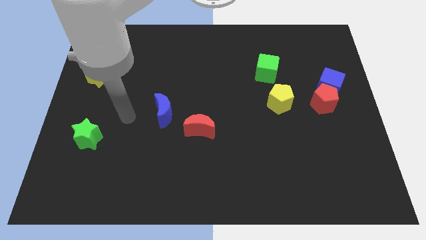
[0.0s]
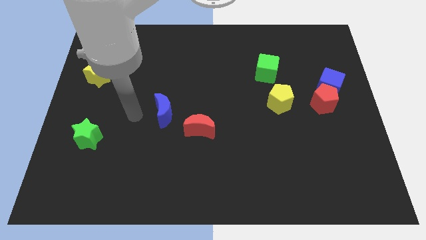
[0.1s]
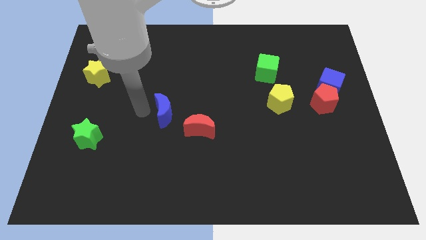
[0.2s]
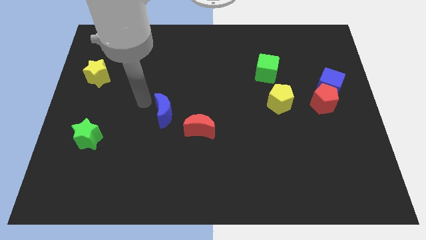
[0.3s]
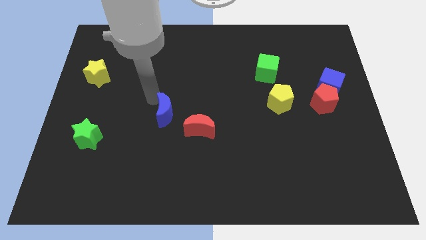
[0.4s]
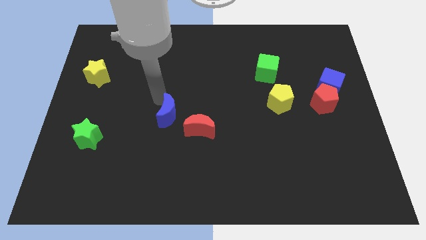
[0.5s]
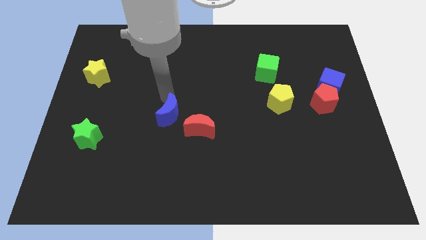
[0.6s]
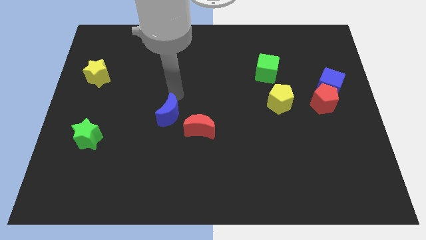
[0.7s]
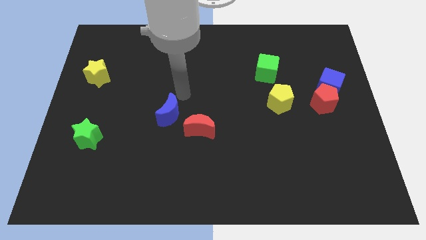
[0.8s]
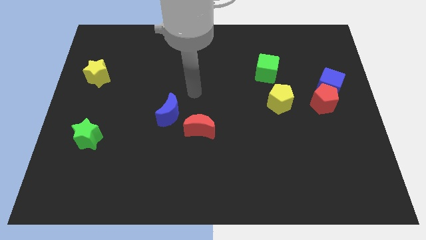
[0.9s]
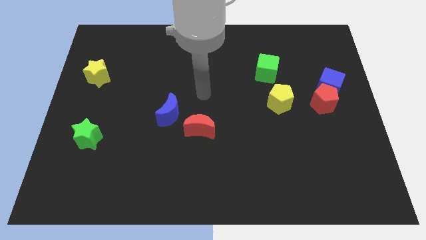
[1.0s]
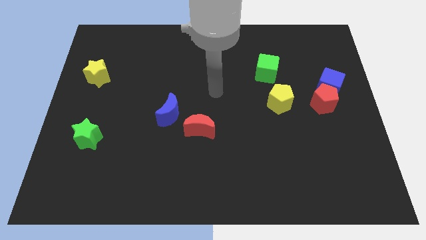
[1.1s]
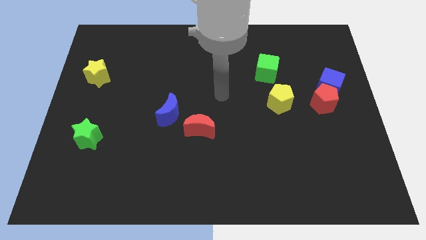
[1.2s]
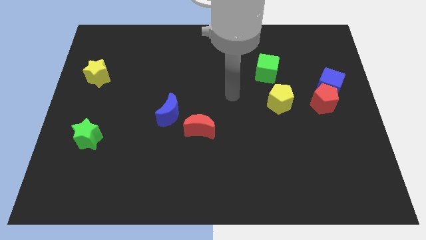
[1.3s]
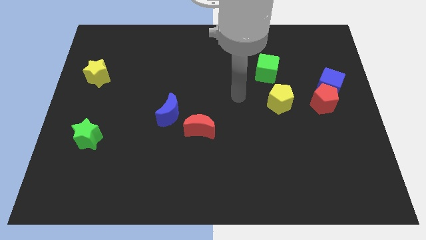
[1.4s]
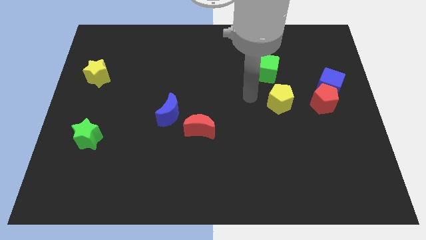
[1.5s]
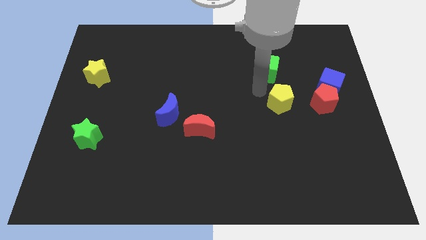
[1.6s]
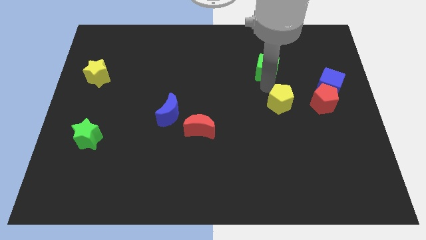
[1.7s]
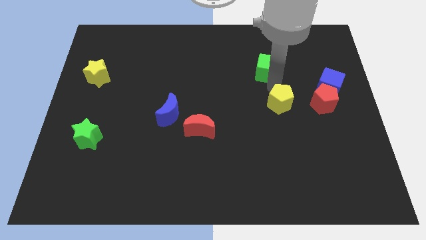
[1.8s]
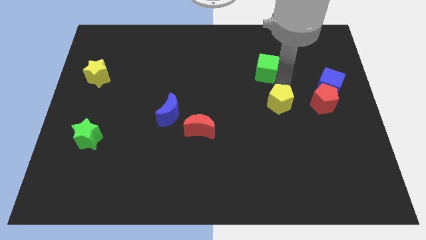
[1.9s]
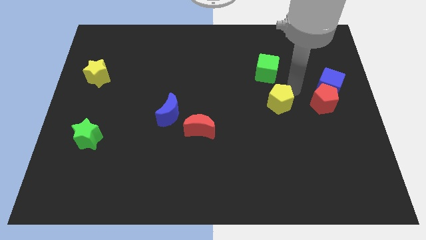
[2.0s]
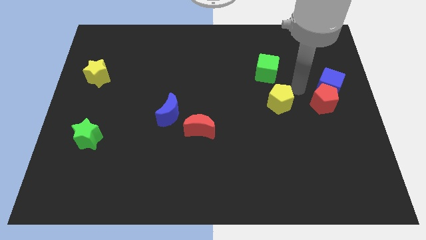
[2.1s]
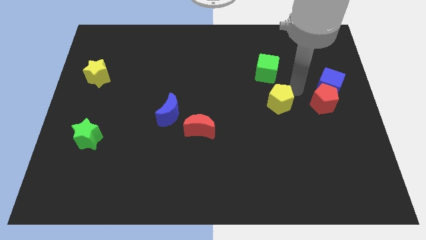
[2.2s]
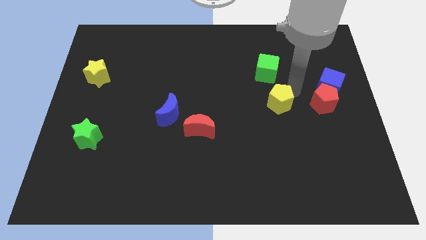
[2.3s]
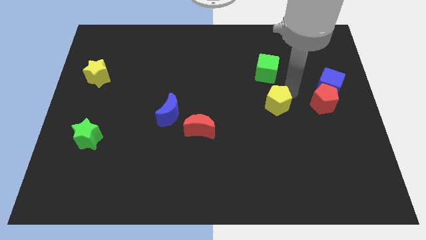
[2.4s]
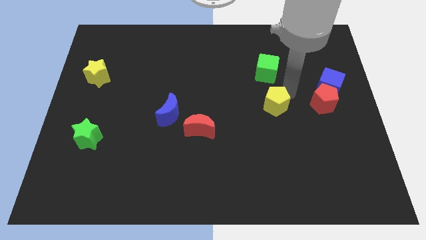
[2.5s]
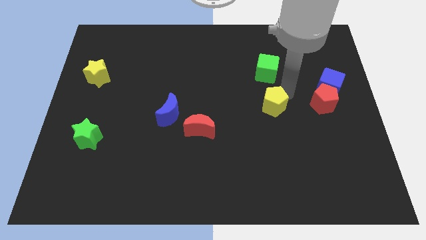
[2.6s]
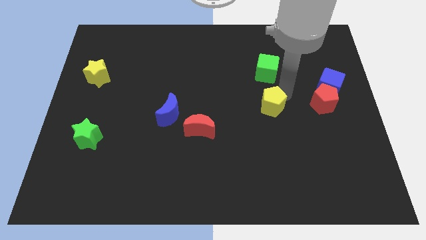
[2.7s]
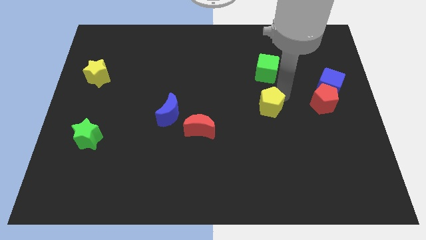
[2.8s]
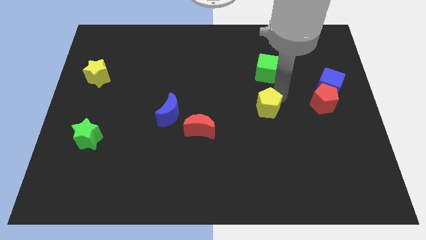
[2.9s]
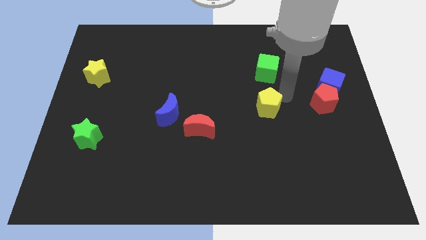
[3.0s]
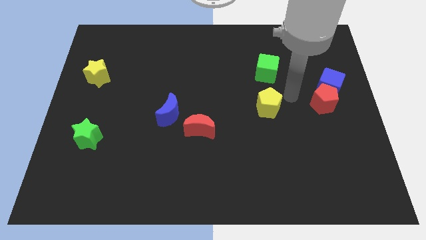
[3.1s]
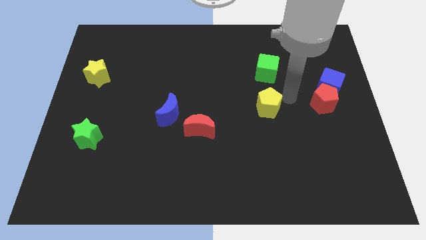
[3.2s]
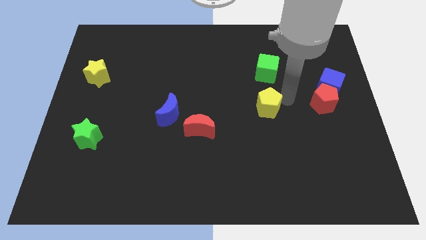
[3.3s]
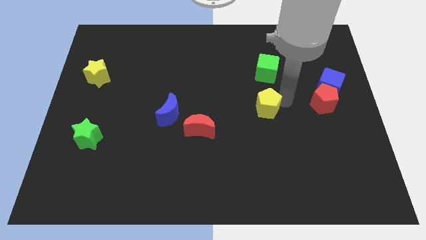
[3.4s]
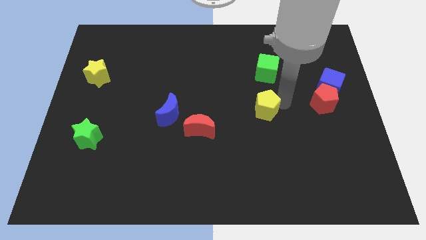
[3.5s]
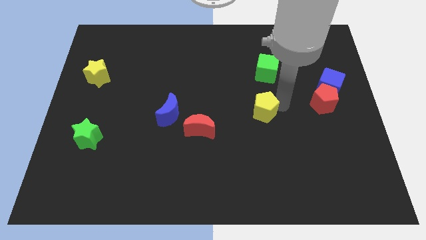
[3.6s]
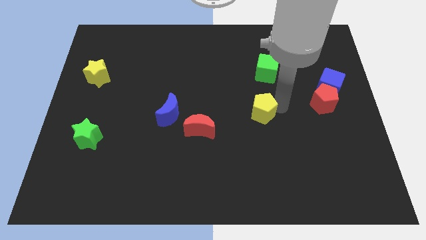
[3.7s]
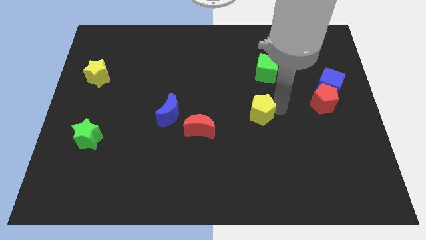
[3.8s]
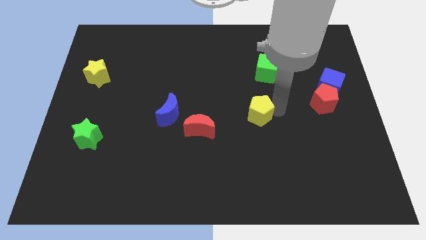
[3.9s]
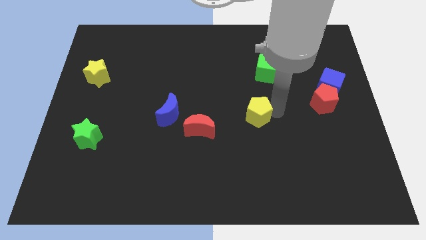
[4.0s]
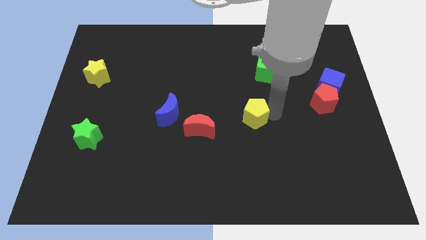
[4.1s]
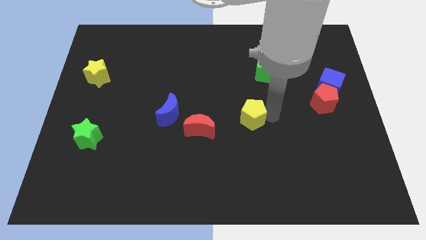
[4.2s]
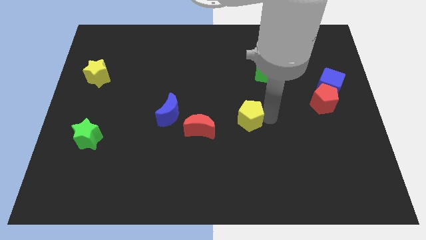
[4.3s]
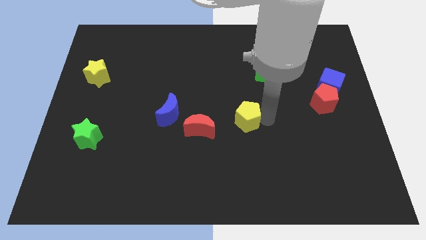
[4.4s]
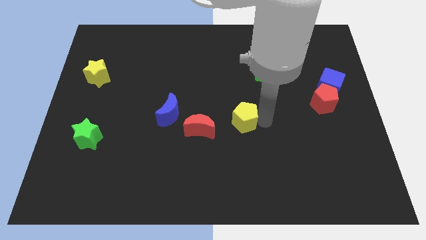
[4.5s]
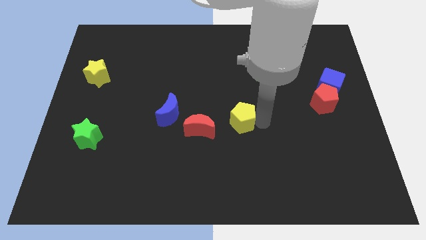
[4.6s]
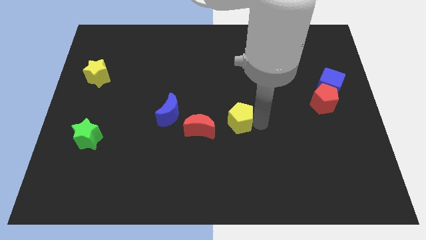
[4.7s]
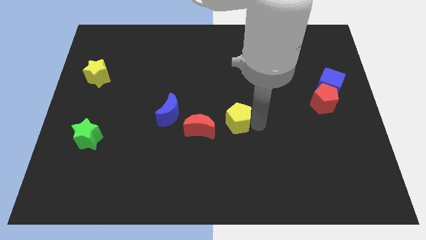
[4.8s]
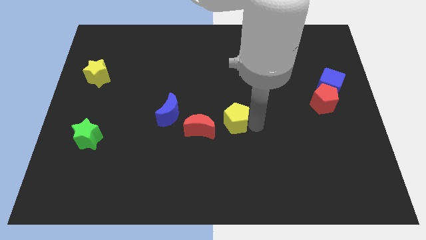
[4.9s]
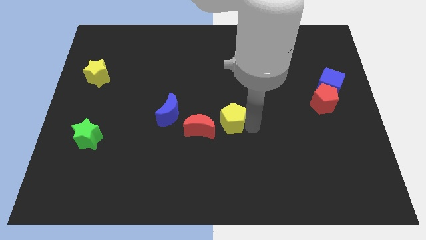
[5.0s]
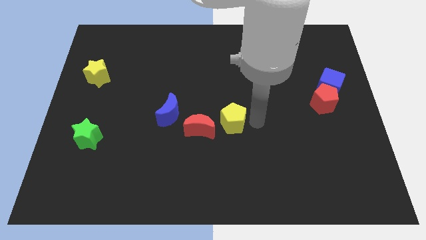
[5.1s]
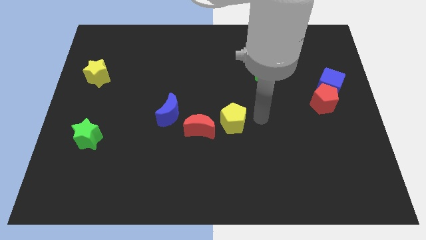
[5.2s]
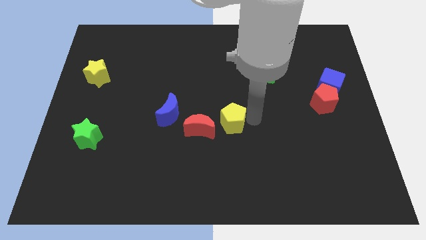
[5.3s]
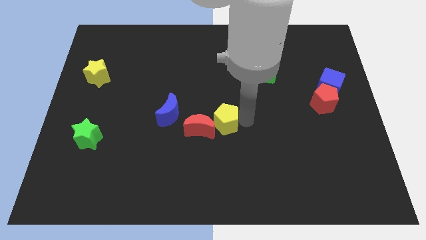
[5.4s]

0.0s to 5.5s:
slide the yellow pentagon to the red moon
